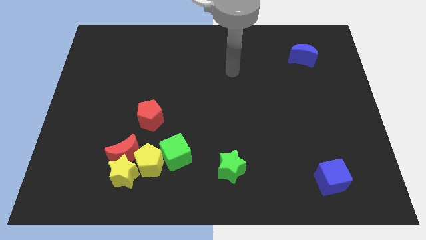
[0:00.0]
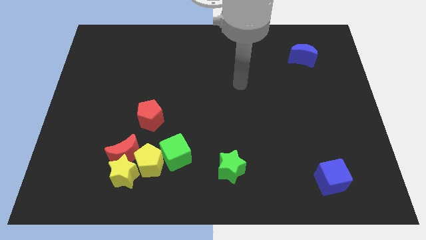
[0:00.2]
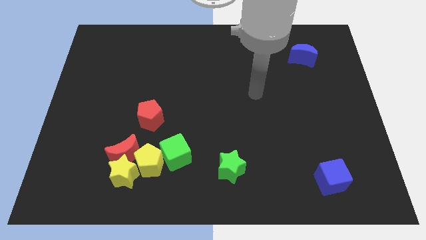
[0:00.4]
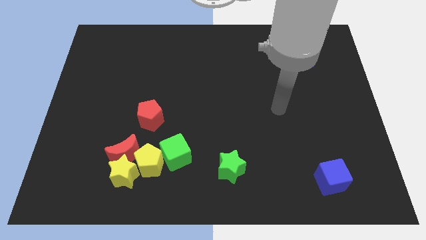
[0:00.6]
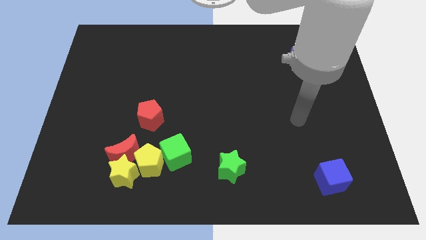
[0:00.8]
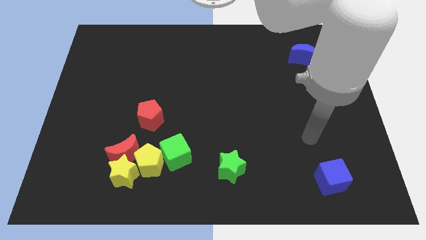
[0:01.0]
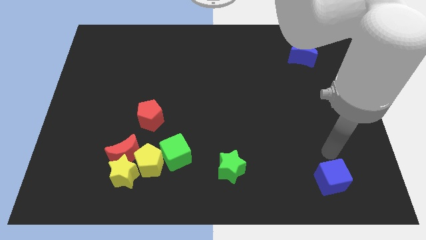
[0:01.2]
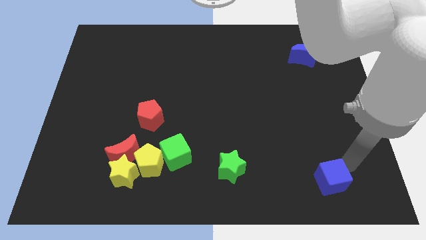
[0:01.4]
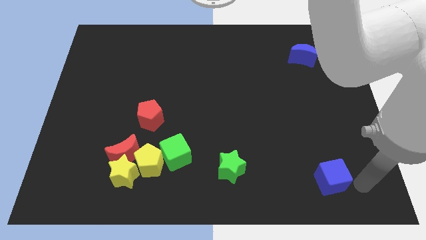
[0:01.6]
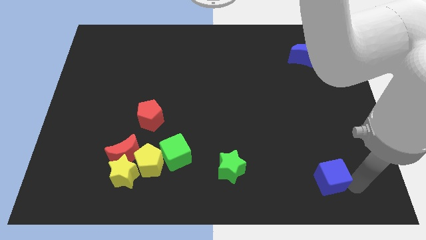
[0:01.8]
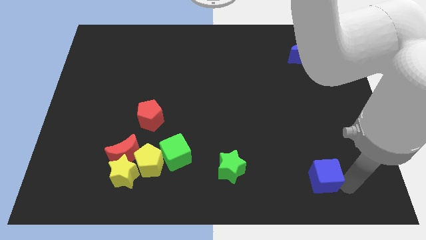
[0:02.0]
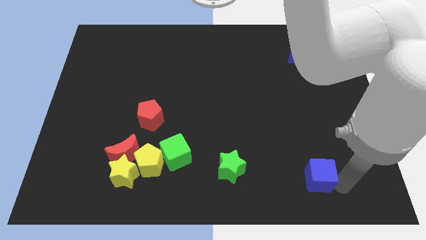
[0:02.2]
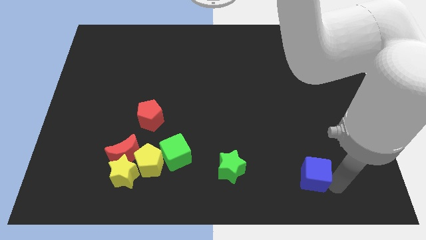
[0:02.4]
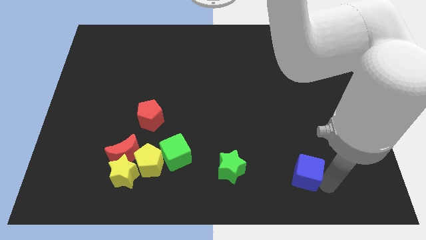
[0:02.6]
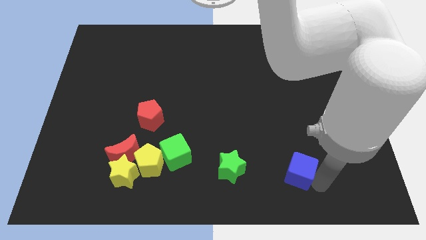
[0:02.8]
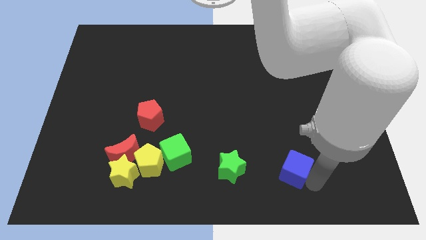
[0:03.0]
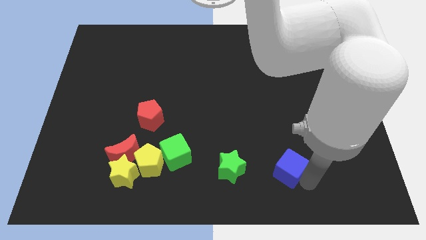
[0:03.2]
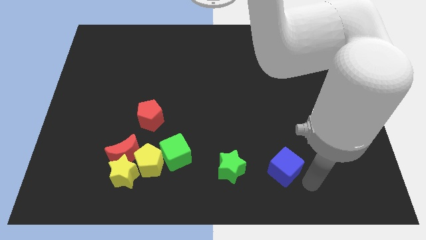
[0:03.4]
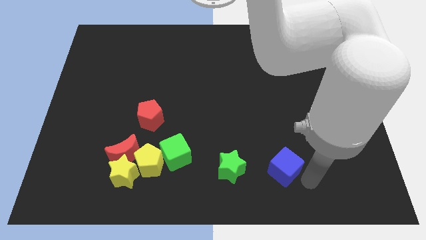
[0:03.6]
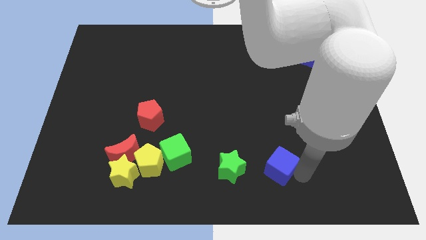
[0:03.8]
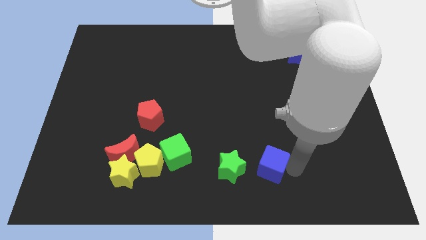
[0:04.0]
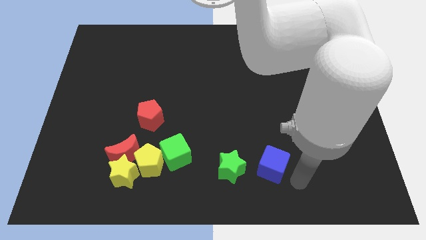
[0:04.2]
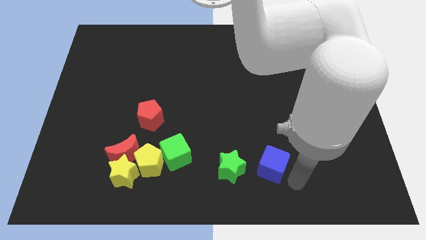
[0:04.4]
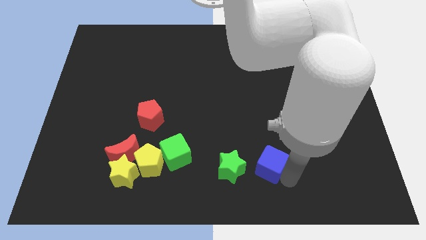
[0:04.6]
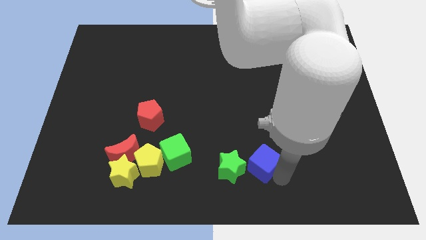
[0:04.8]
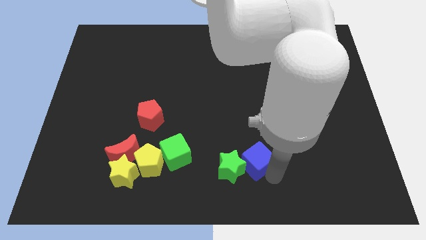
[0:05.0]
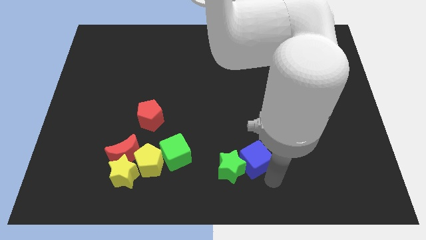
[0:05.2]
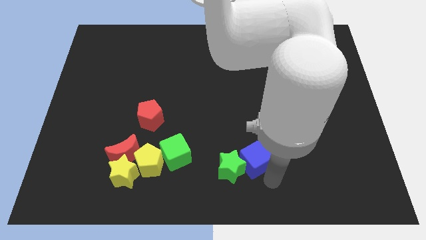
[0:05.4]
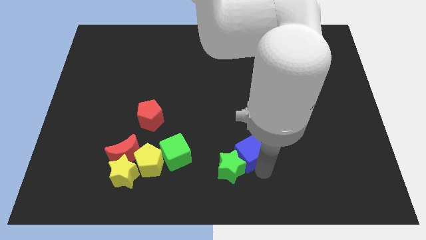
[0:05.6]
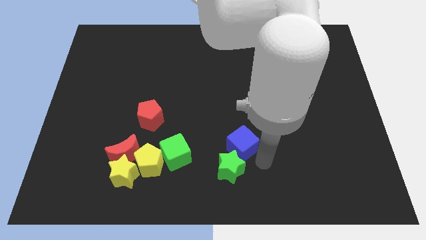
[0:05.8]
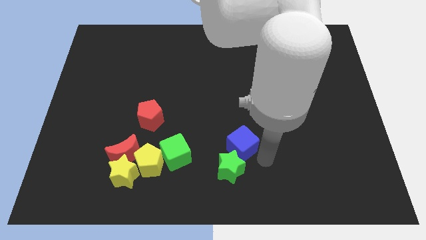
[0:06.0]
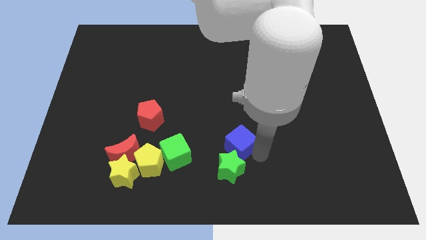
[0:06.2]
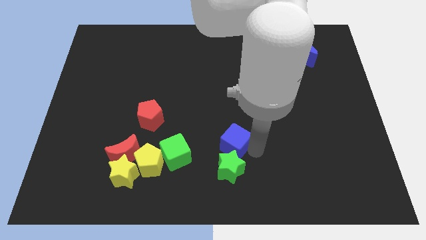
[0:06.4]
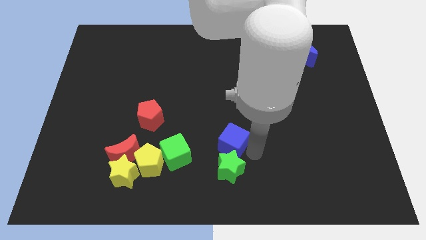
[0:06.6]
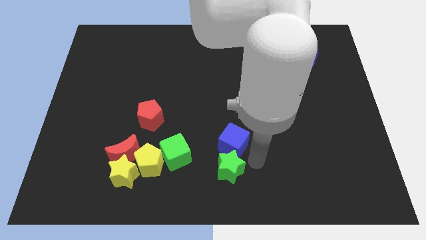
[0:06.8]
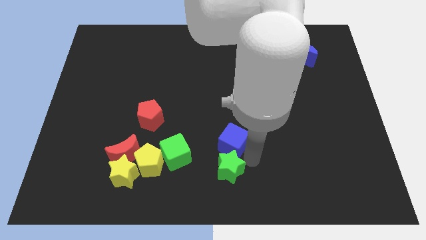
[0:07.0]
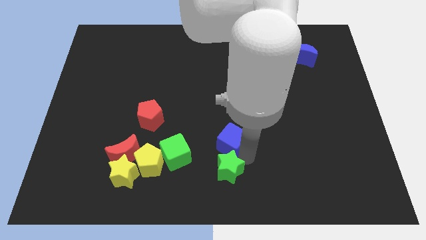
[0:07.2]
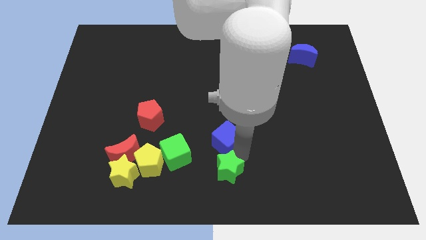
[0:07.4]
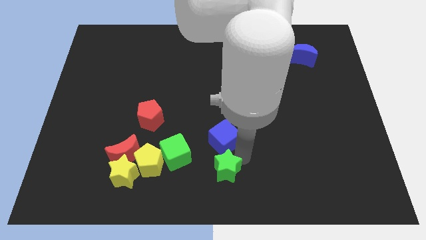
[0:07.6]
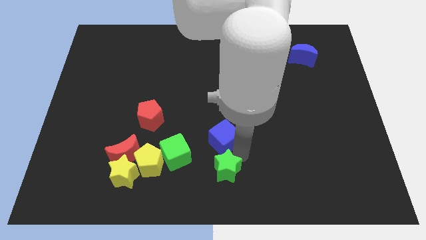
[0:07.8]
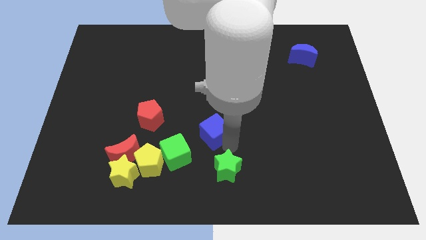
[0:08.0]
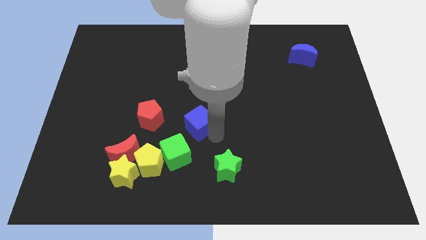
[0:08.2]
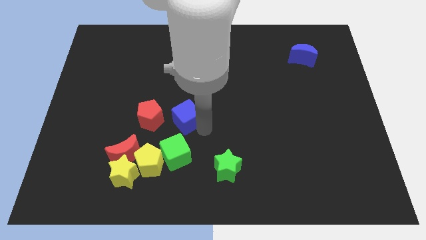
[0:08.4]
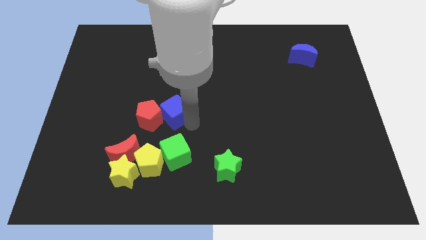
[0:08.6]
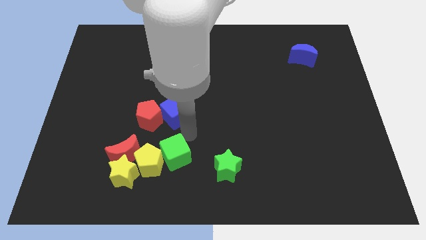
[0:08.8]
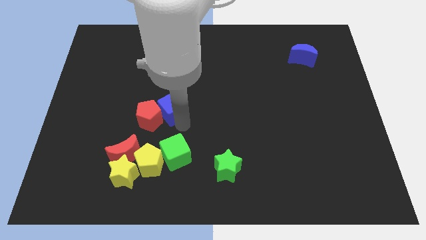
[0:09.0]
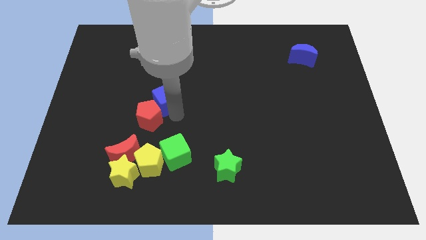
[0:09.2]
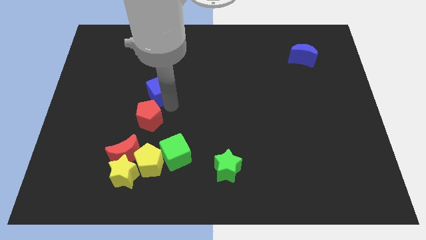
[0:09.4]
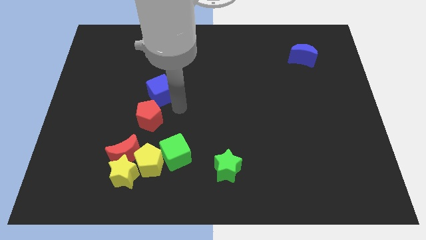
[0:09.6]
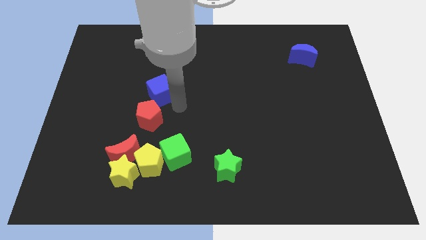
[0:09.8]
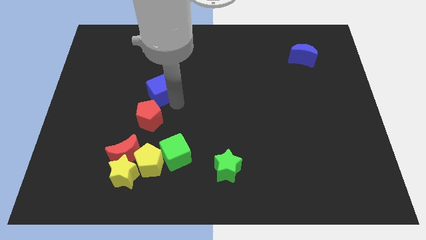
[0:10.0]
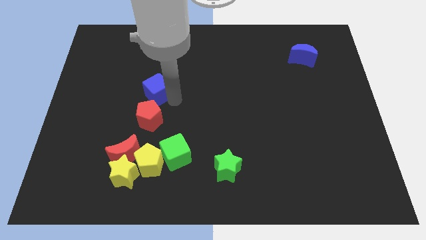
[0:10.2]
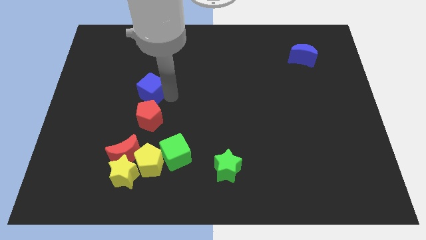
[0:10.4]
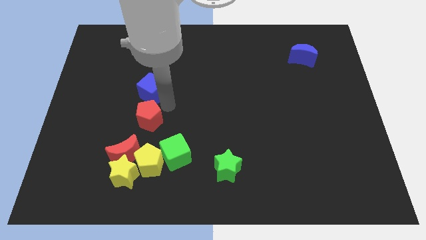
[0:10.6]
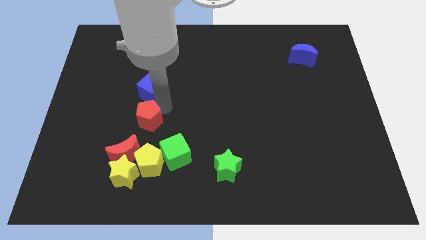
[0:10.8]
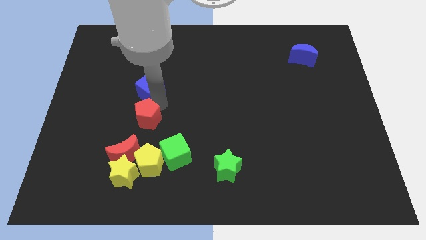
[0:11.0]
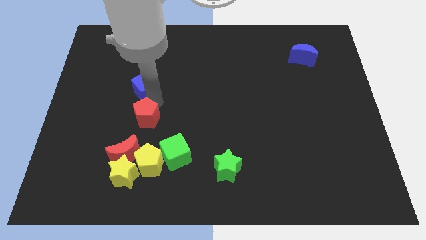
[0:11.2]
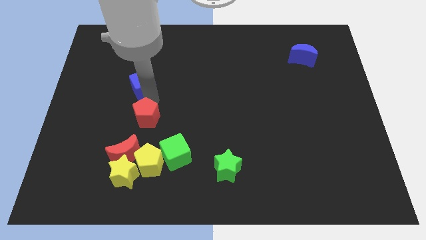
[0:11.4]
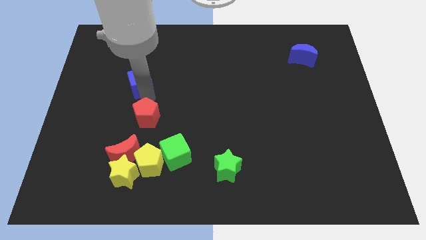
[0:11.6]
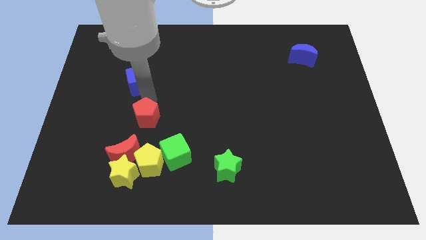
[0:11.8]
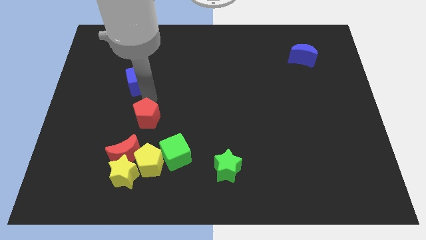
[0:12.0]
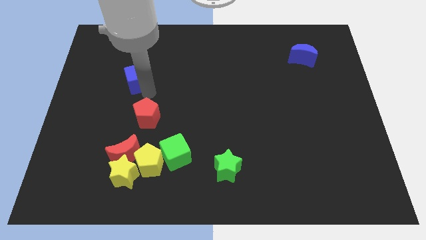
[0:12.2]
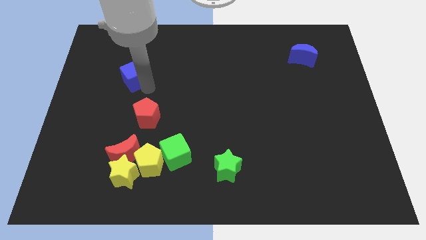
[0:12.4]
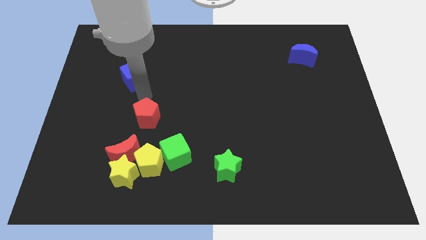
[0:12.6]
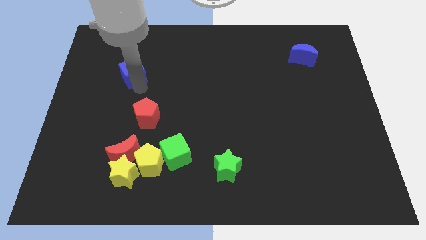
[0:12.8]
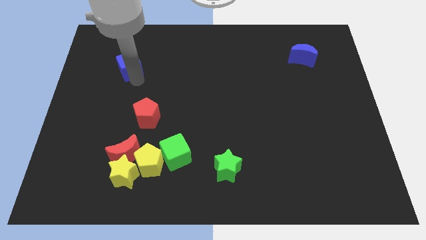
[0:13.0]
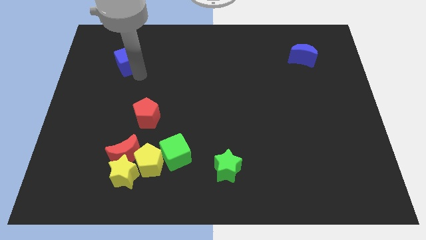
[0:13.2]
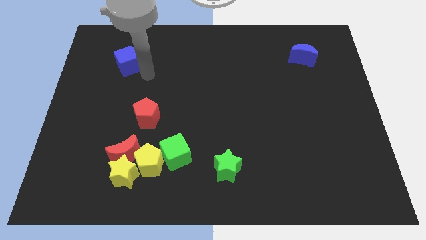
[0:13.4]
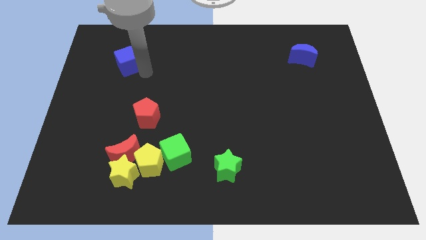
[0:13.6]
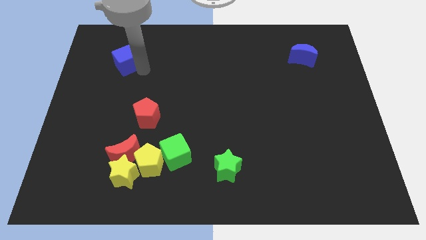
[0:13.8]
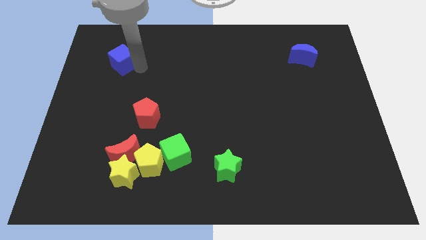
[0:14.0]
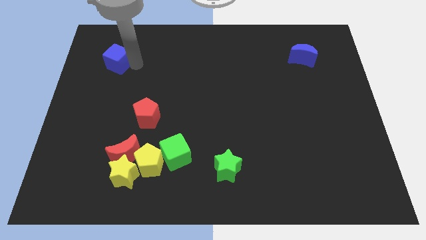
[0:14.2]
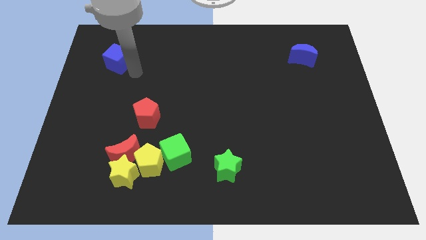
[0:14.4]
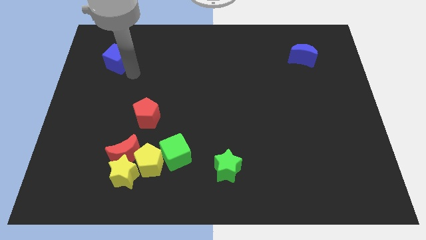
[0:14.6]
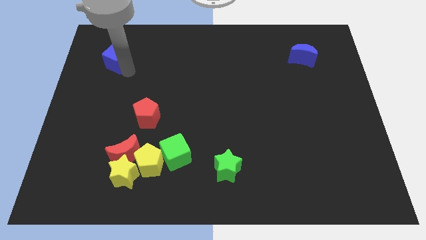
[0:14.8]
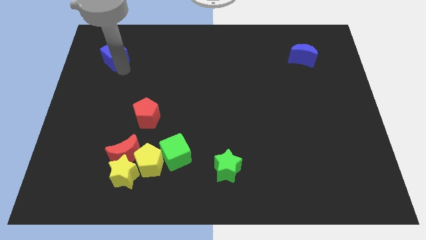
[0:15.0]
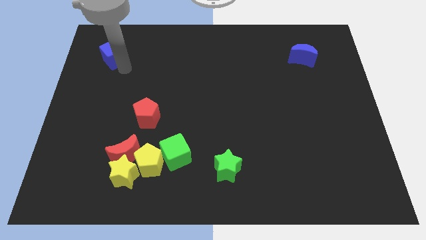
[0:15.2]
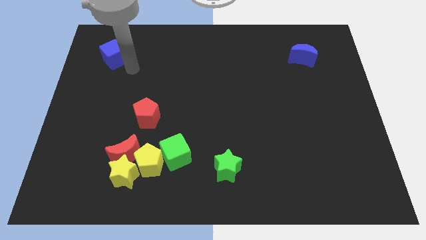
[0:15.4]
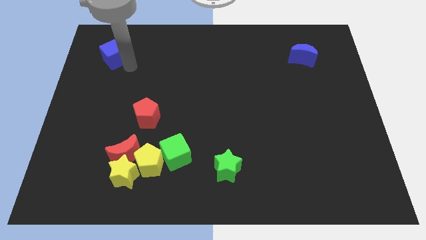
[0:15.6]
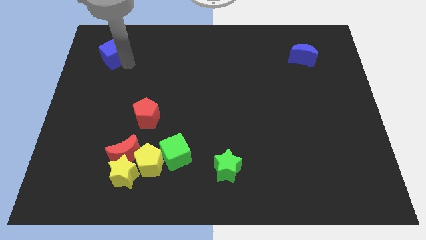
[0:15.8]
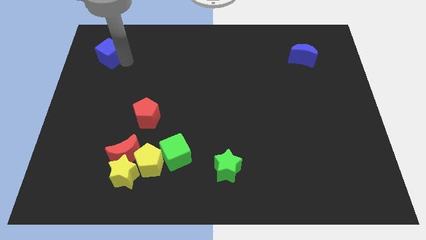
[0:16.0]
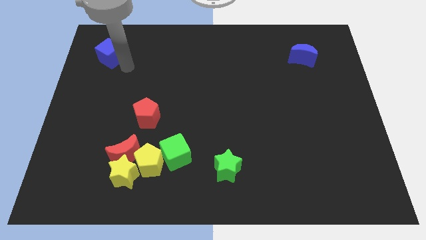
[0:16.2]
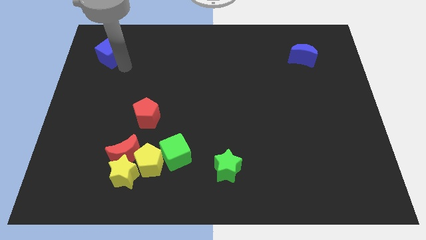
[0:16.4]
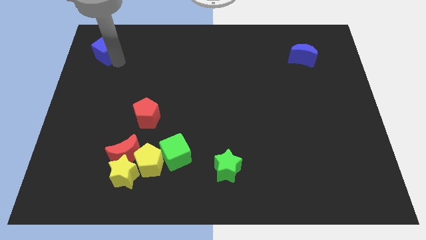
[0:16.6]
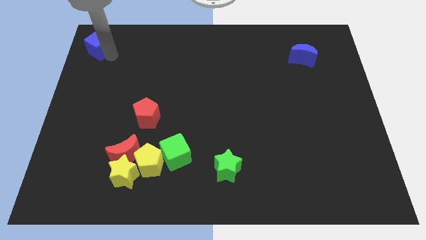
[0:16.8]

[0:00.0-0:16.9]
slide the blue cube to the top left corner
